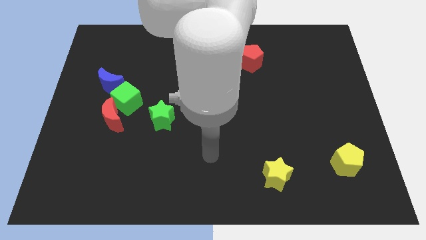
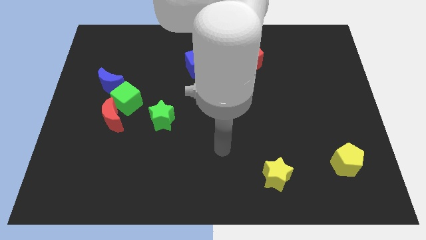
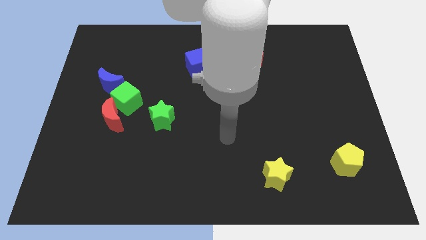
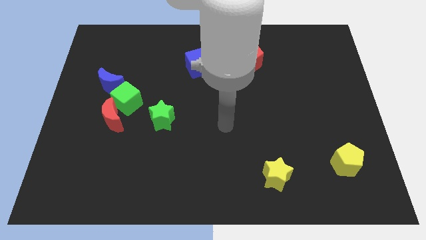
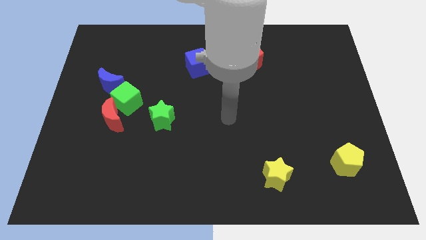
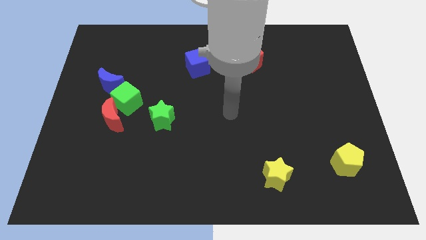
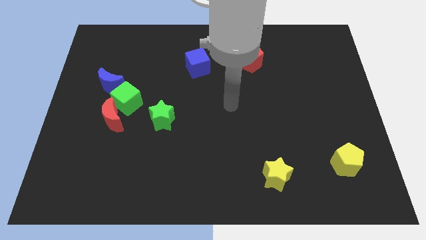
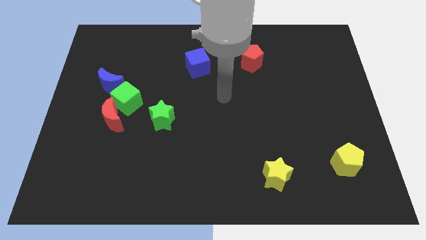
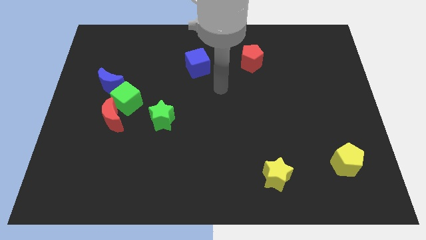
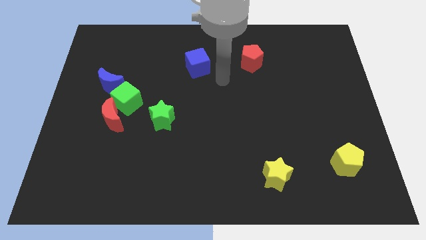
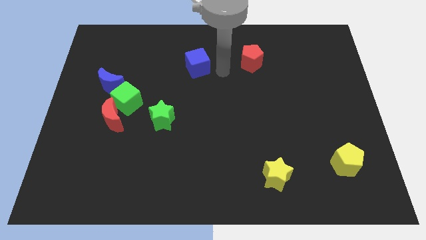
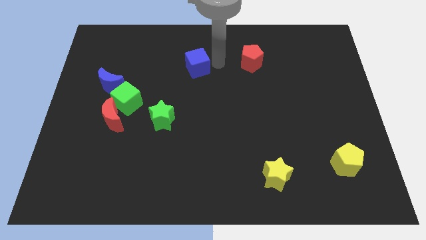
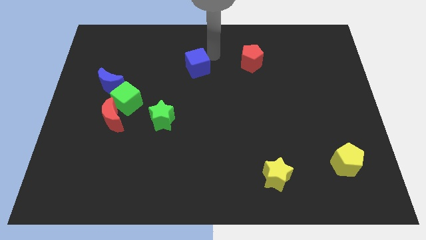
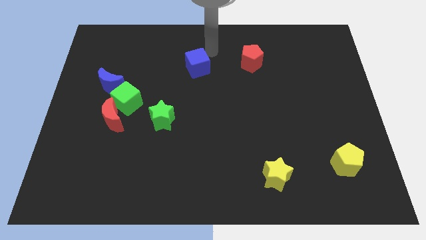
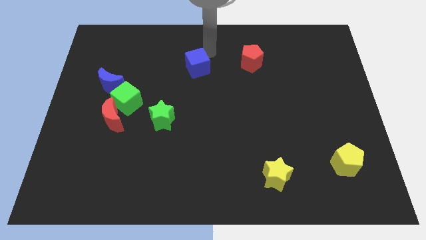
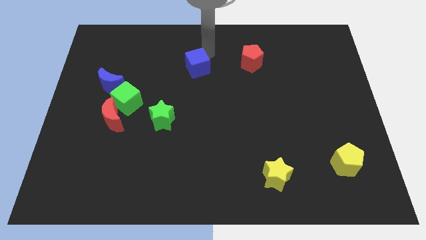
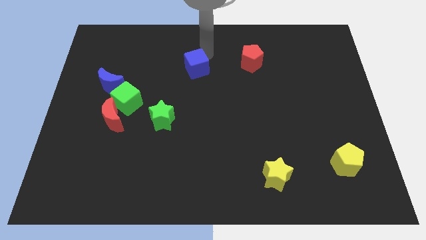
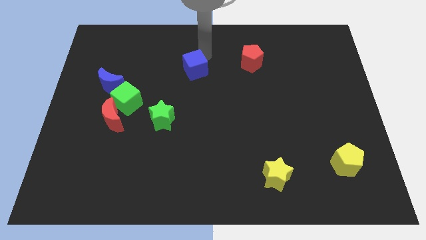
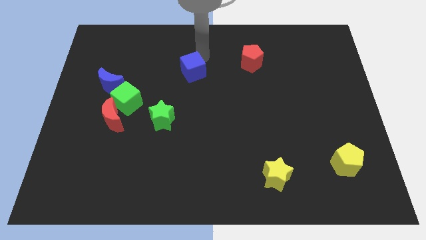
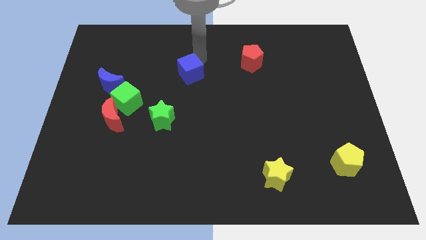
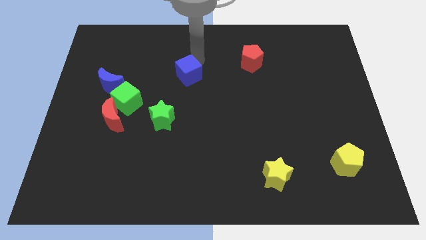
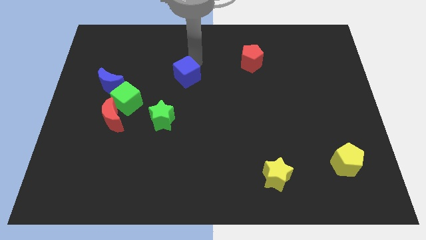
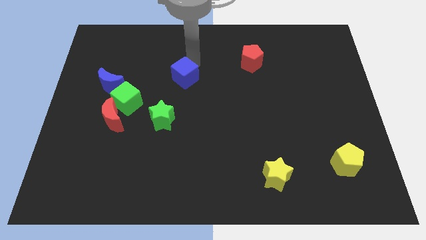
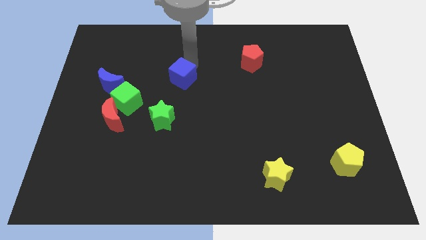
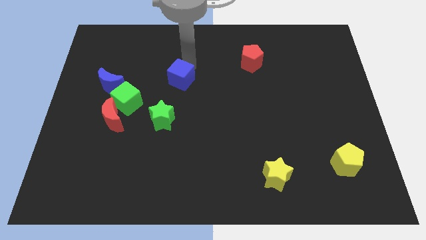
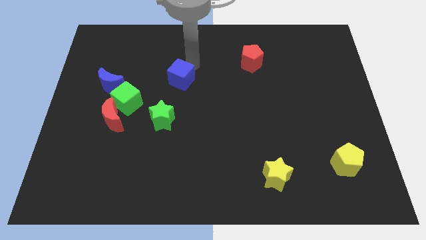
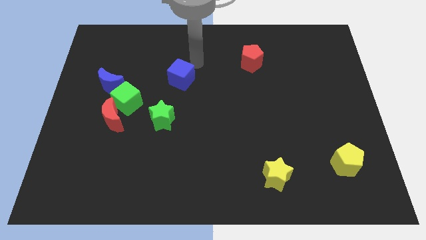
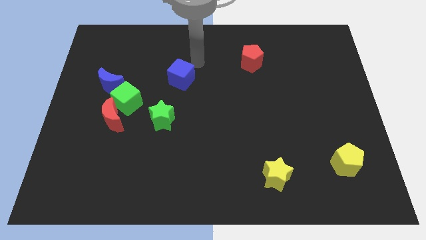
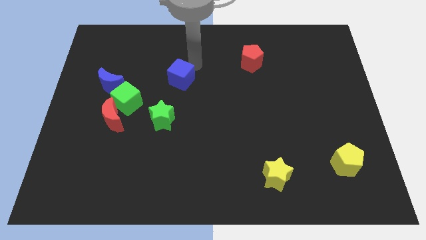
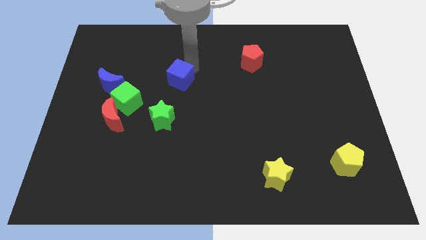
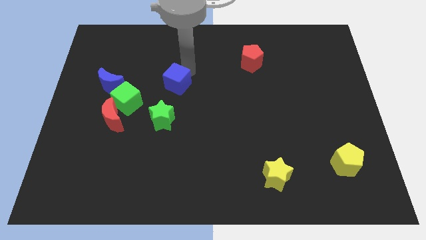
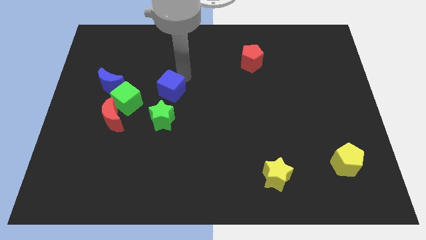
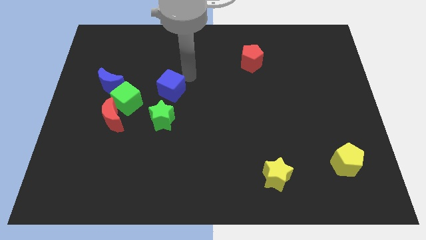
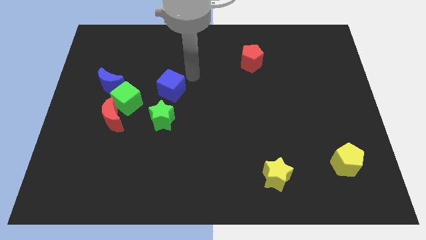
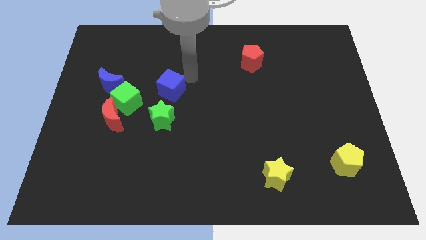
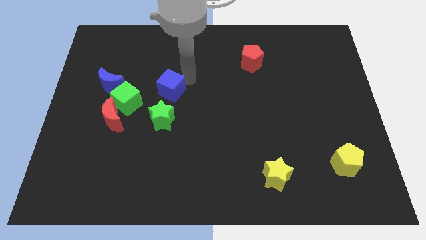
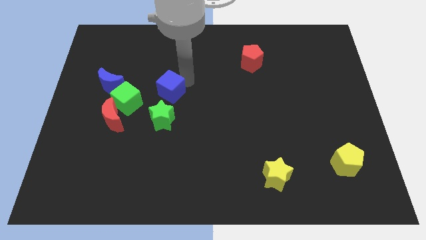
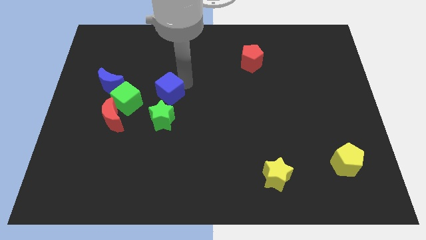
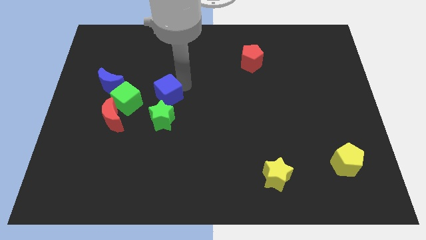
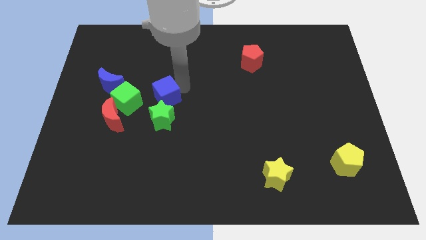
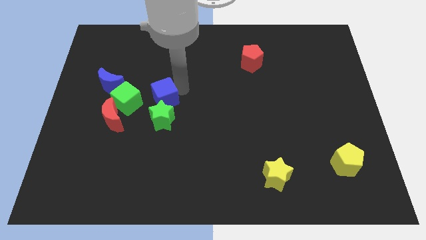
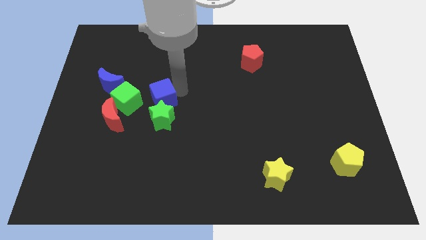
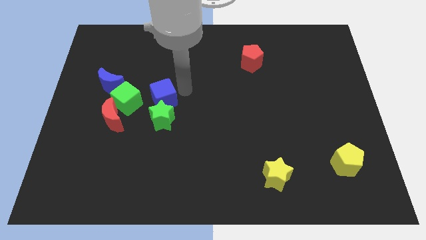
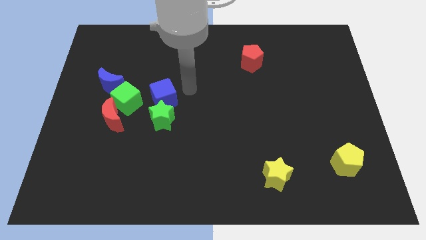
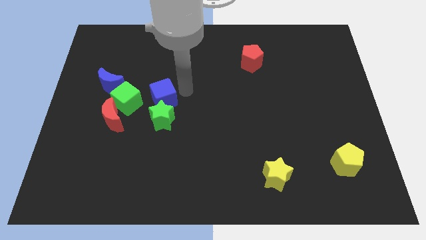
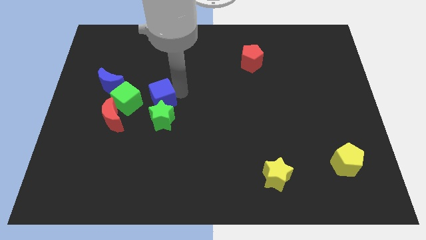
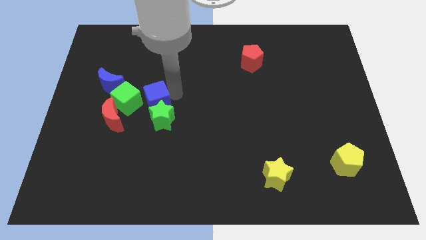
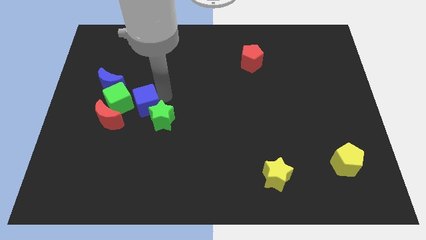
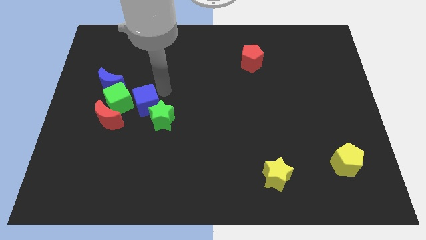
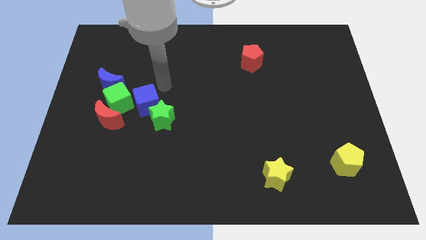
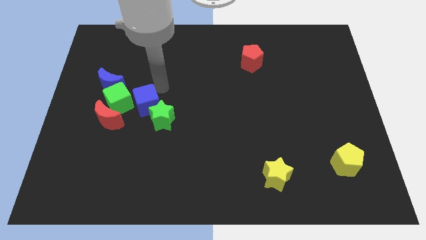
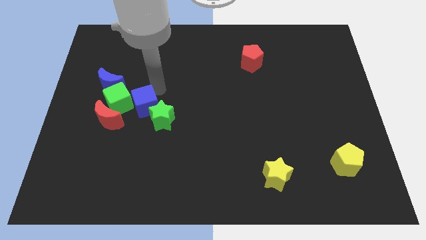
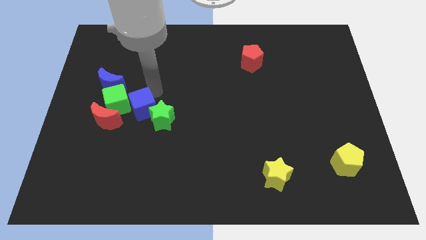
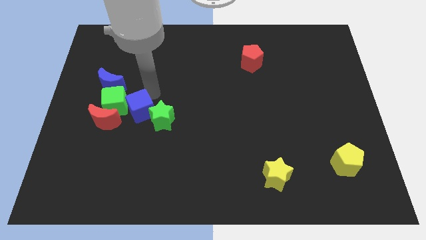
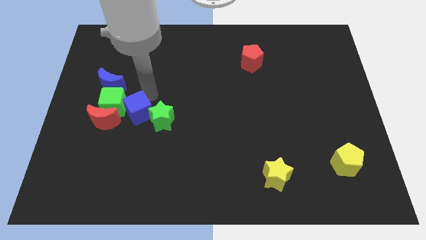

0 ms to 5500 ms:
push the blue cube downwards and left diagonally

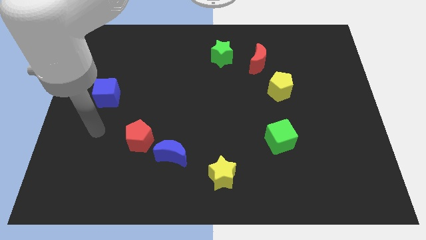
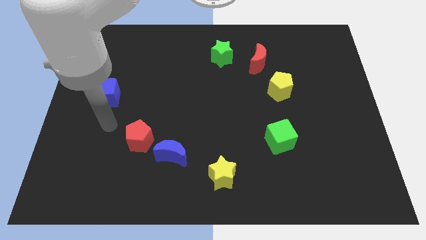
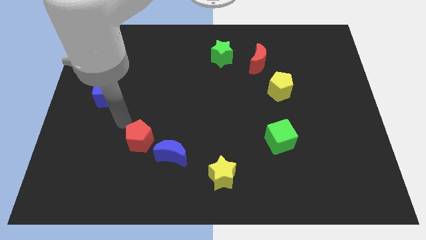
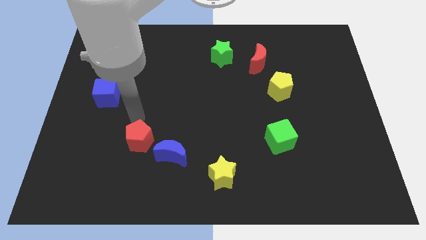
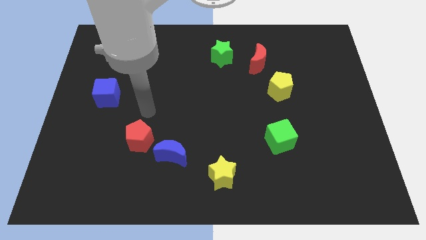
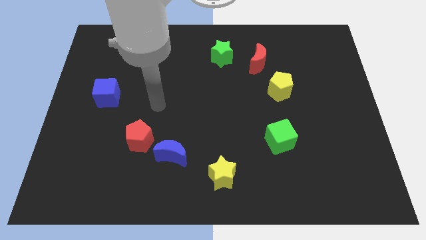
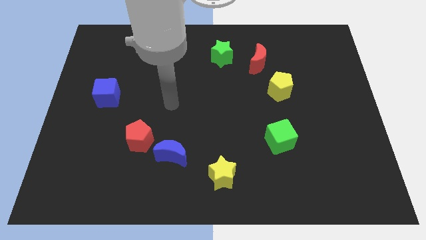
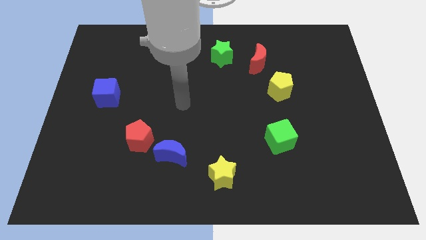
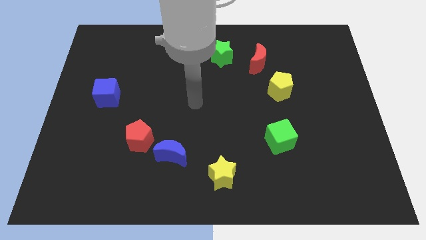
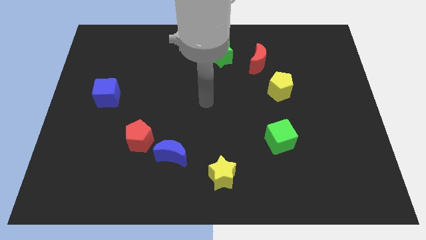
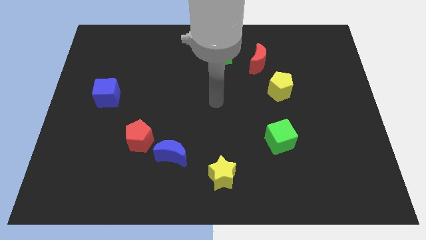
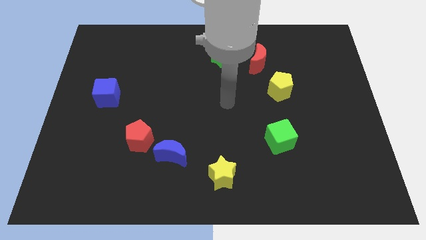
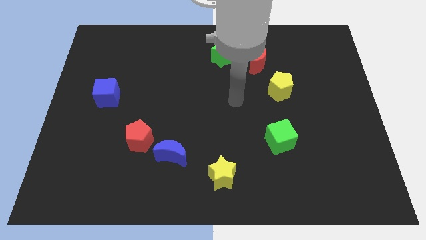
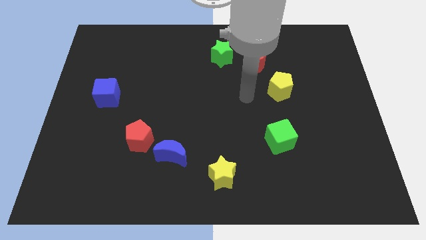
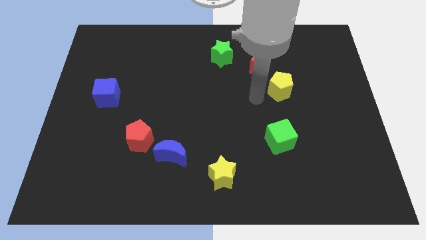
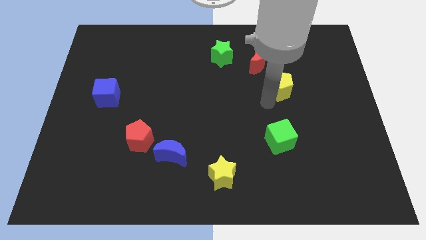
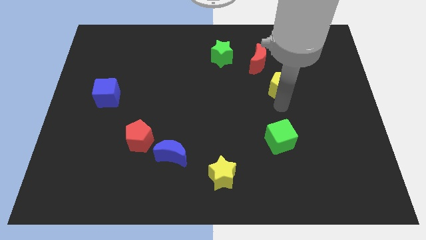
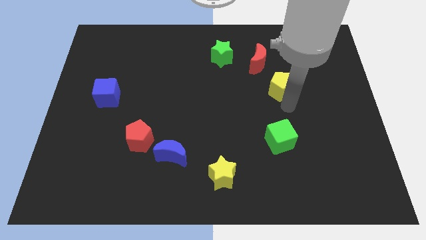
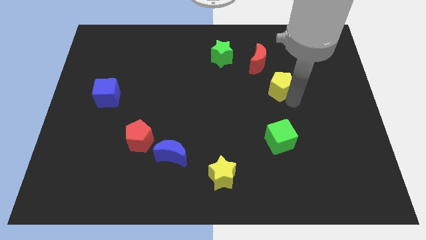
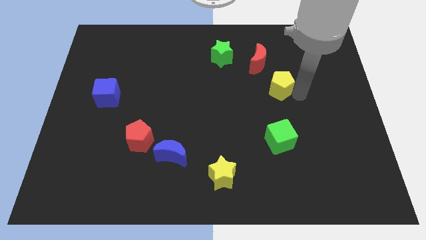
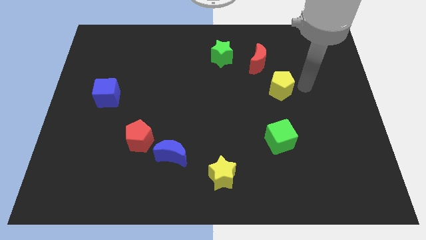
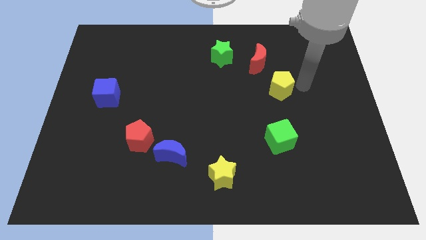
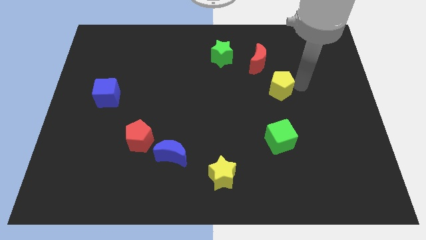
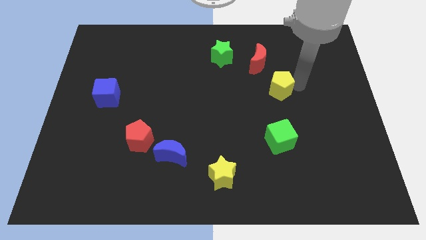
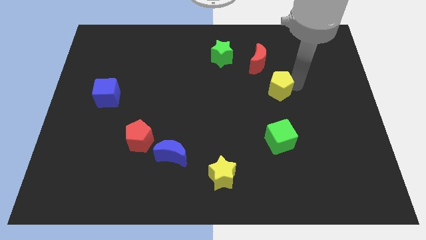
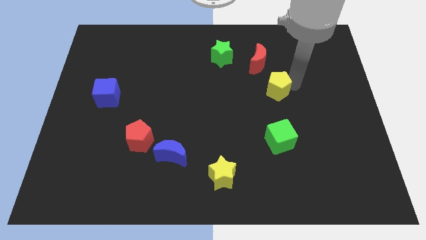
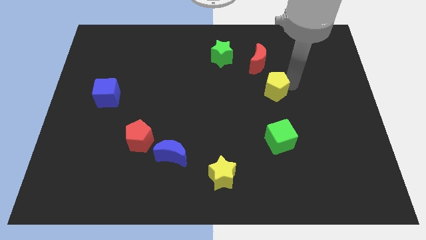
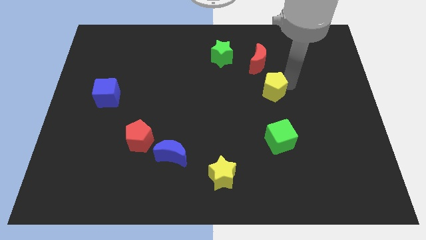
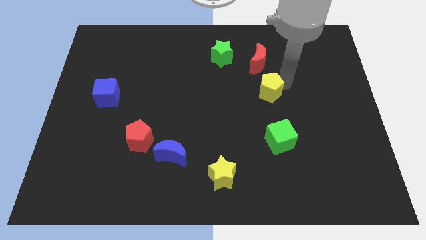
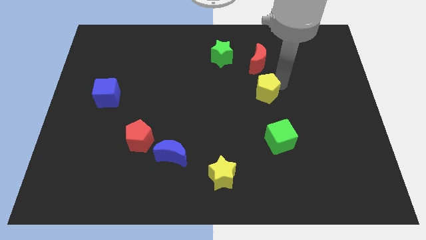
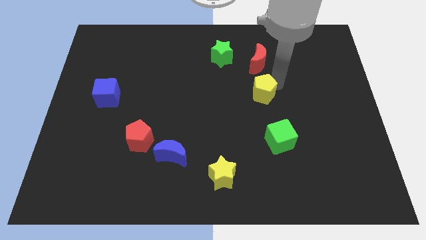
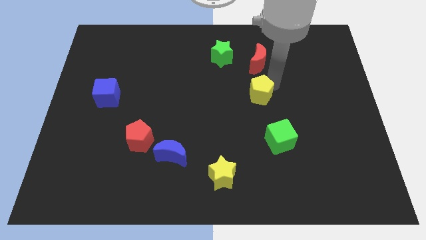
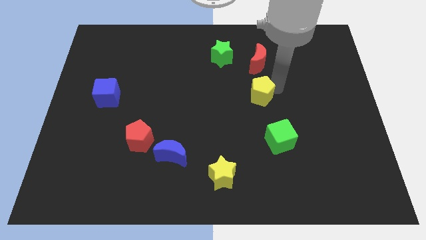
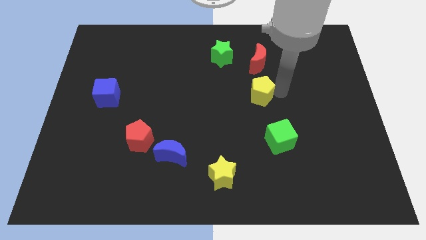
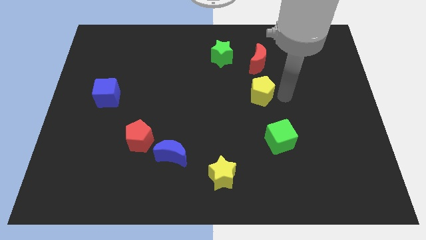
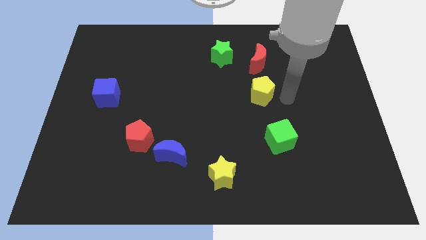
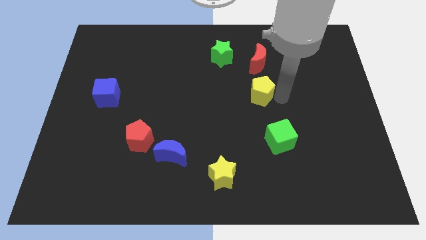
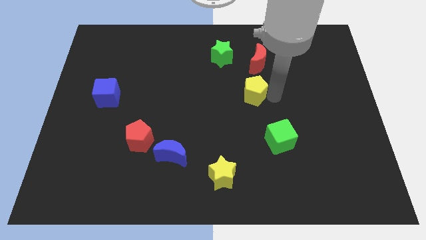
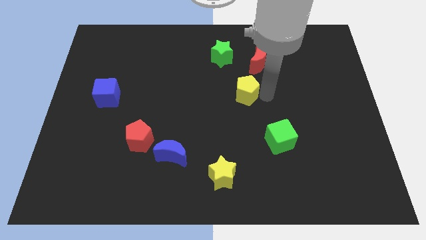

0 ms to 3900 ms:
slightly push the yellow pentagon left
